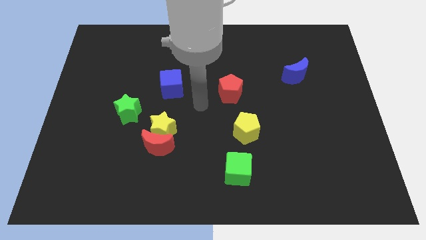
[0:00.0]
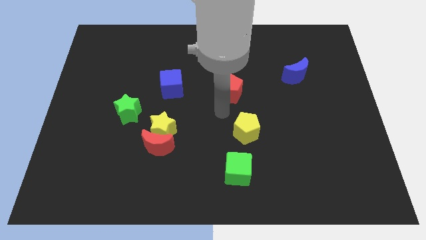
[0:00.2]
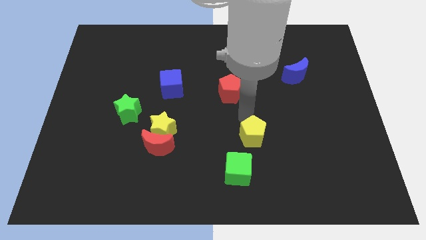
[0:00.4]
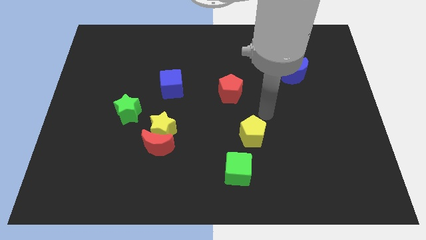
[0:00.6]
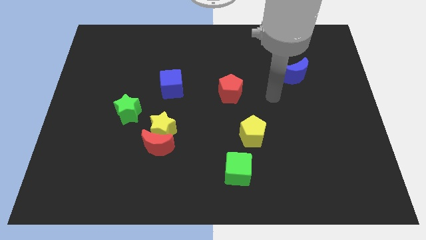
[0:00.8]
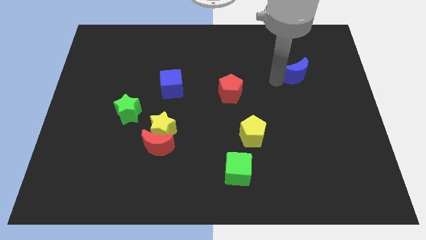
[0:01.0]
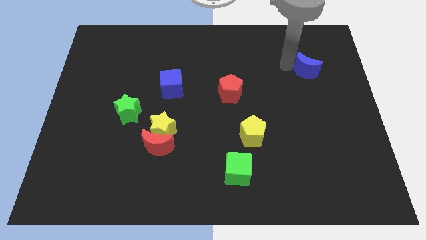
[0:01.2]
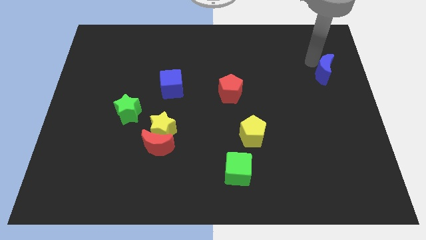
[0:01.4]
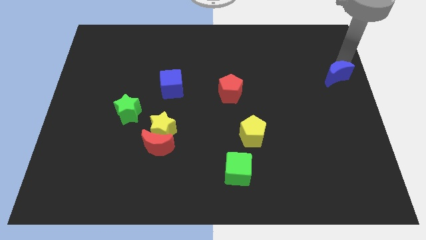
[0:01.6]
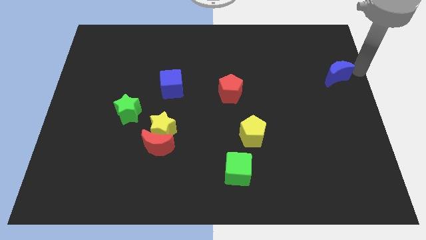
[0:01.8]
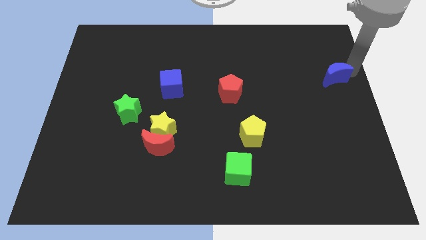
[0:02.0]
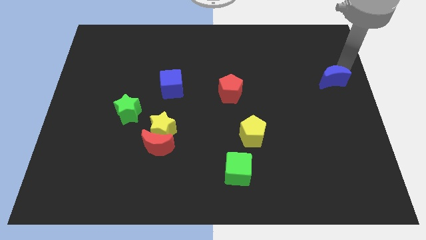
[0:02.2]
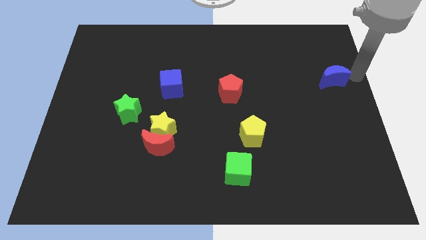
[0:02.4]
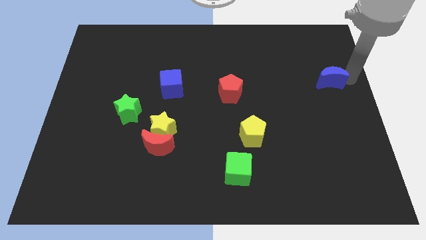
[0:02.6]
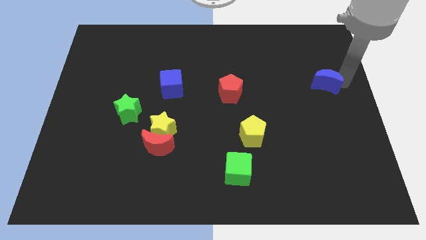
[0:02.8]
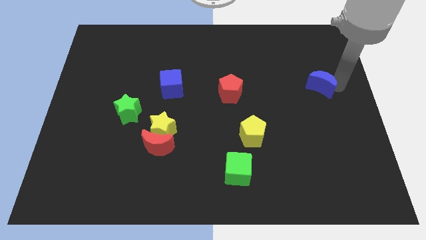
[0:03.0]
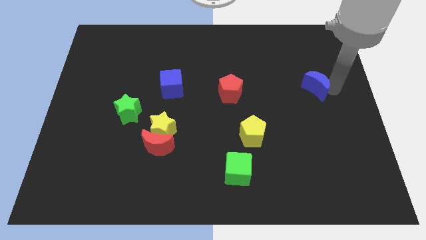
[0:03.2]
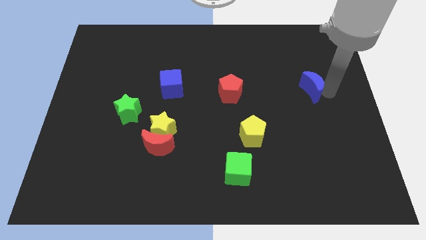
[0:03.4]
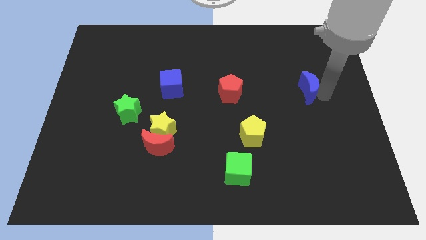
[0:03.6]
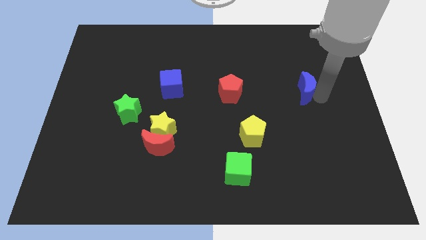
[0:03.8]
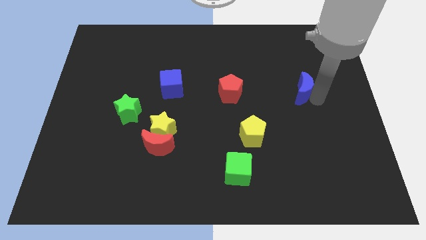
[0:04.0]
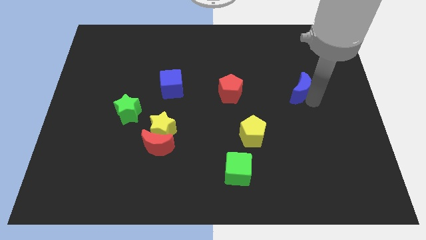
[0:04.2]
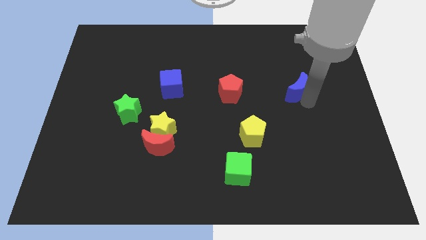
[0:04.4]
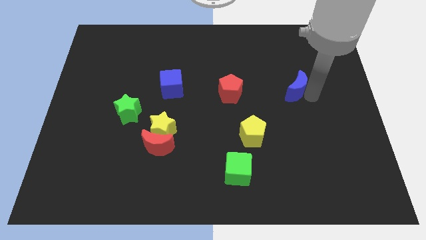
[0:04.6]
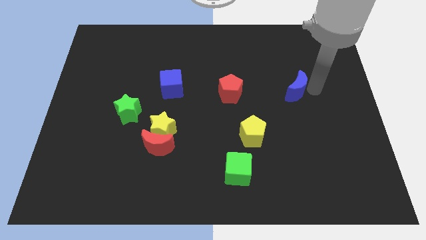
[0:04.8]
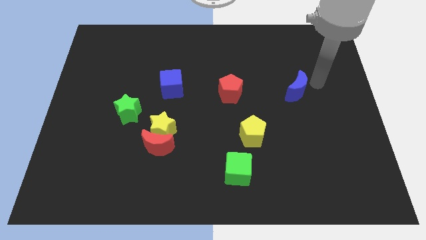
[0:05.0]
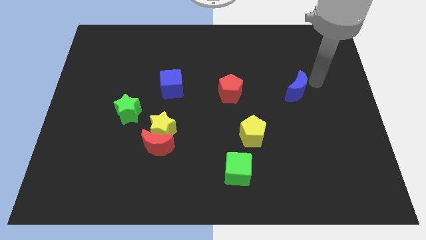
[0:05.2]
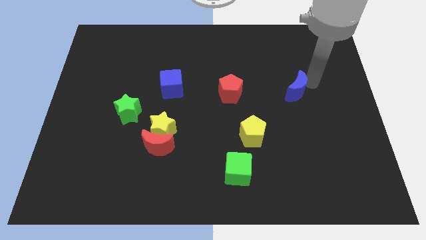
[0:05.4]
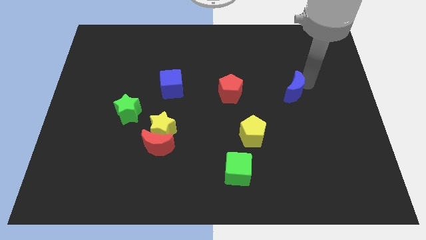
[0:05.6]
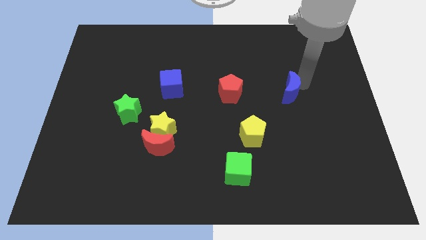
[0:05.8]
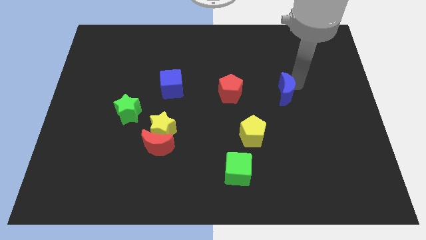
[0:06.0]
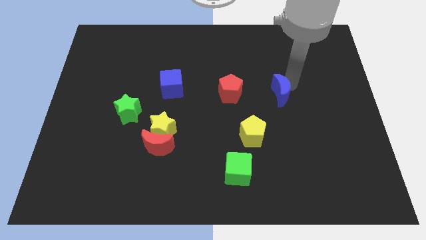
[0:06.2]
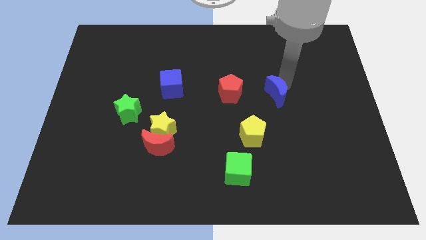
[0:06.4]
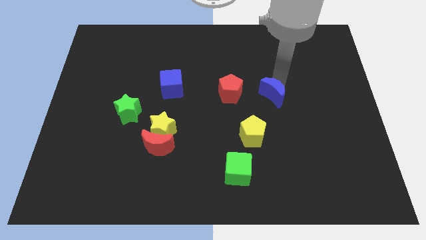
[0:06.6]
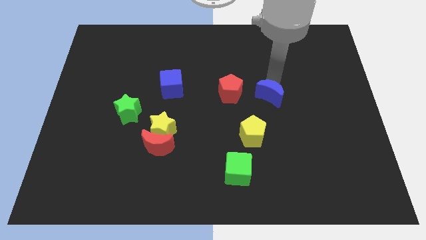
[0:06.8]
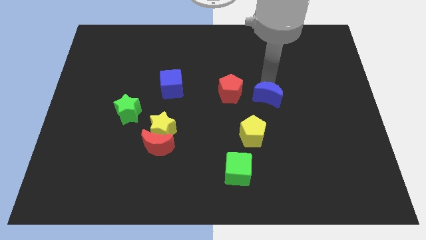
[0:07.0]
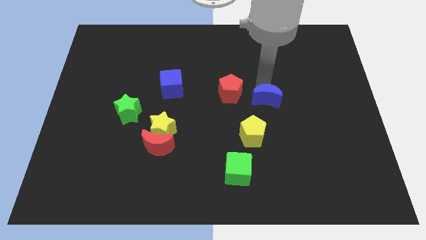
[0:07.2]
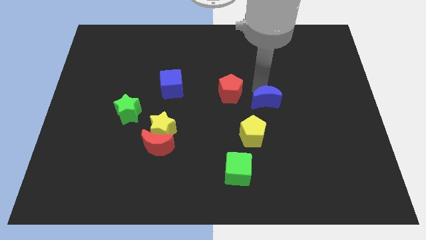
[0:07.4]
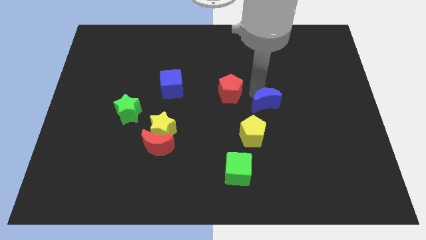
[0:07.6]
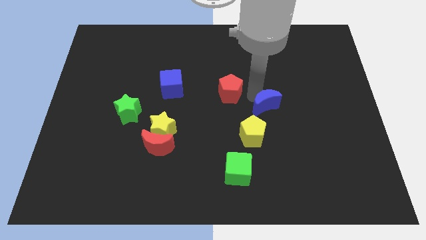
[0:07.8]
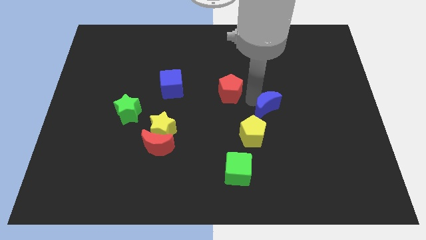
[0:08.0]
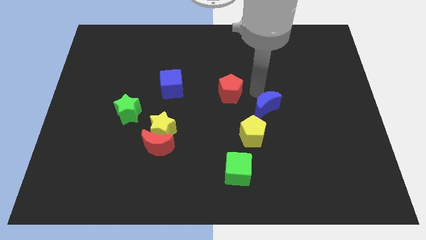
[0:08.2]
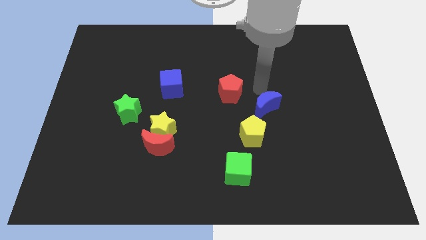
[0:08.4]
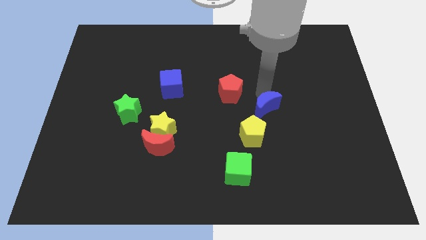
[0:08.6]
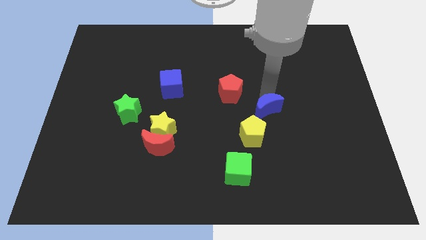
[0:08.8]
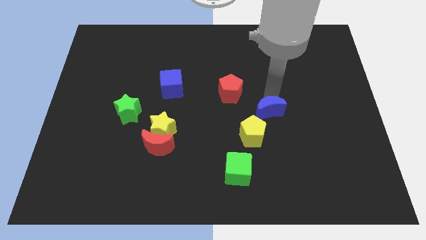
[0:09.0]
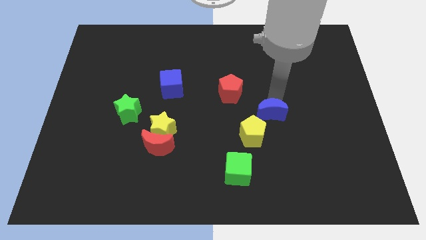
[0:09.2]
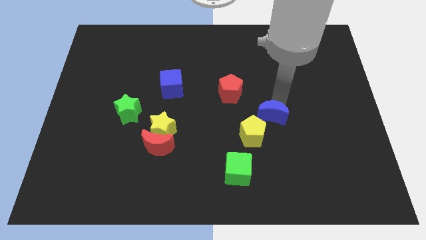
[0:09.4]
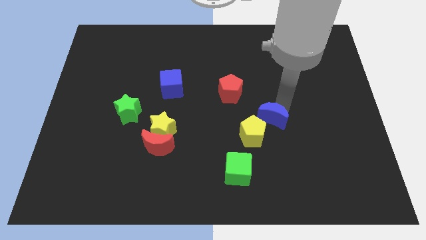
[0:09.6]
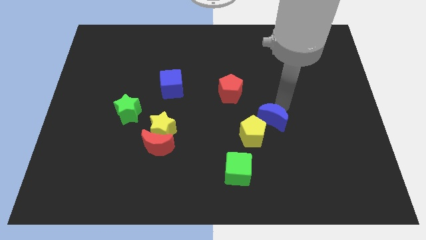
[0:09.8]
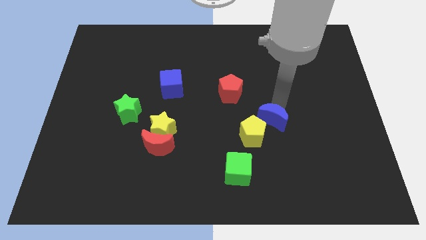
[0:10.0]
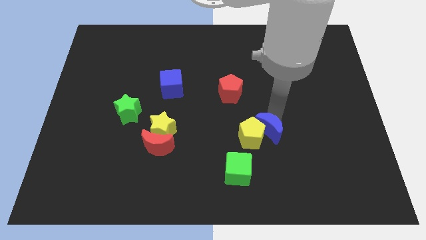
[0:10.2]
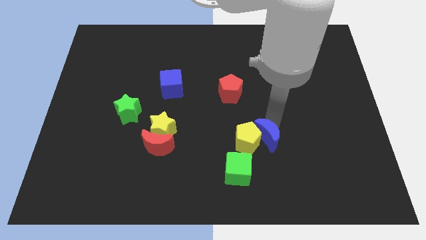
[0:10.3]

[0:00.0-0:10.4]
move the blue moon diagonally up and to the right of the green cube

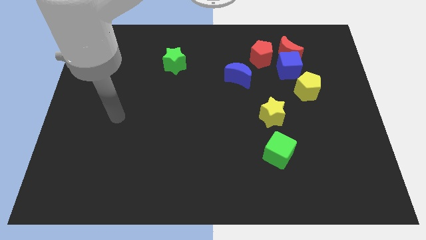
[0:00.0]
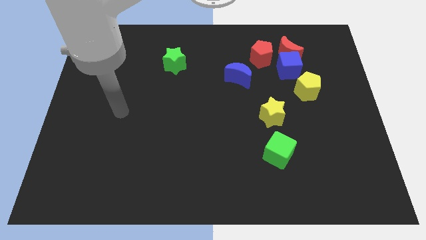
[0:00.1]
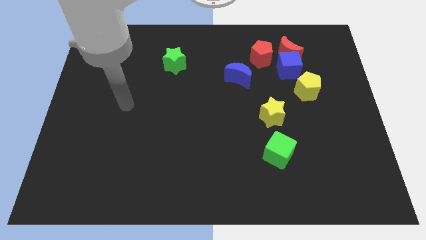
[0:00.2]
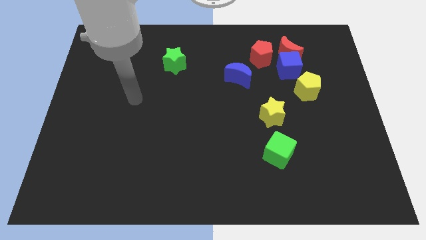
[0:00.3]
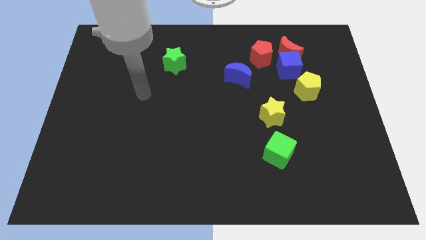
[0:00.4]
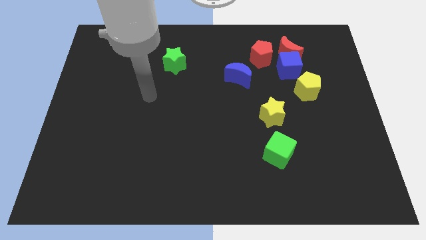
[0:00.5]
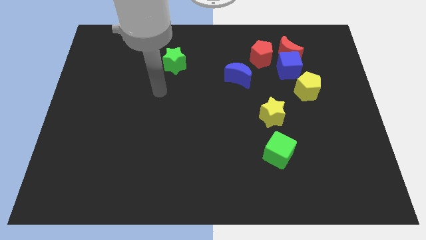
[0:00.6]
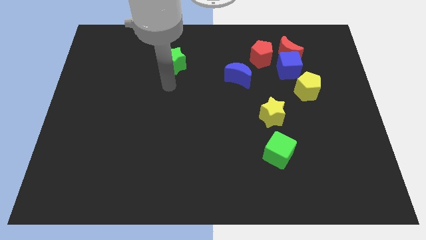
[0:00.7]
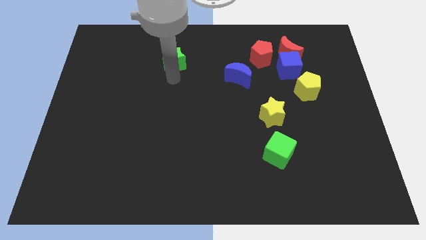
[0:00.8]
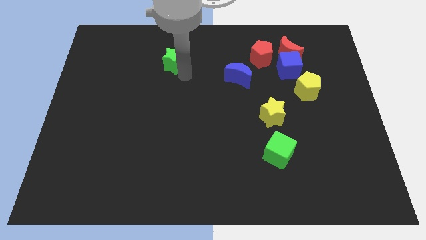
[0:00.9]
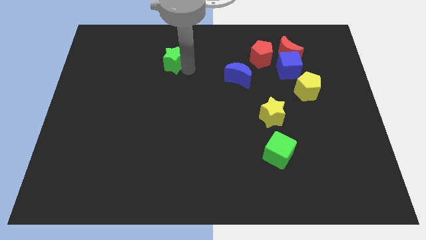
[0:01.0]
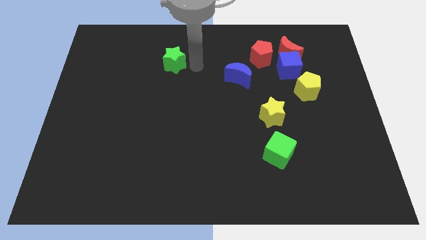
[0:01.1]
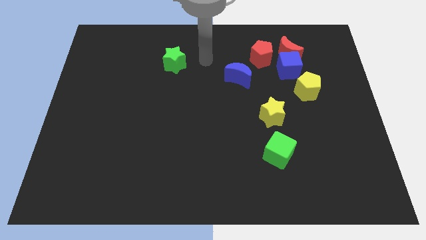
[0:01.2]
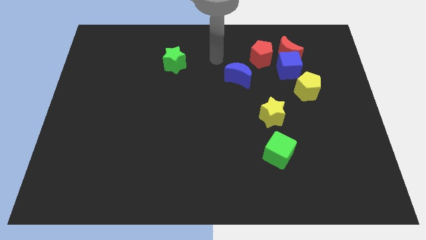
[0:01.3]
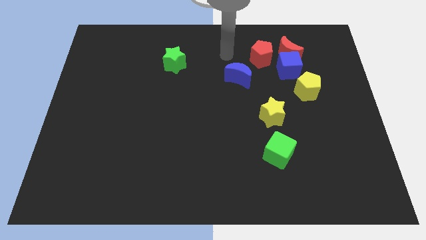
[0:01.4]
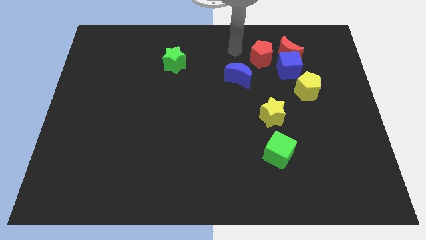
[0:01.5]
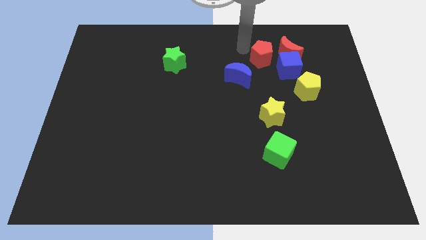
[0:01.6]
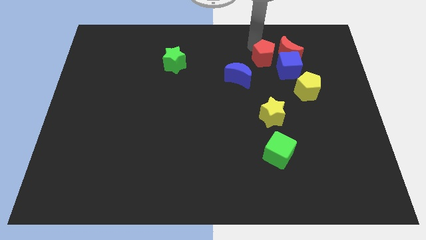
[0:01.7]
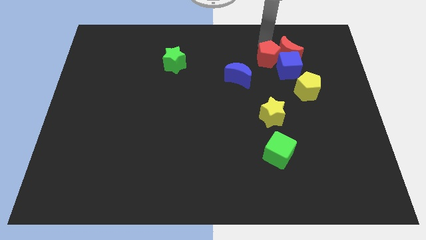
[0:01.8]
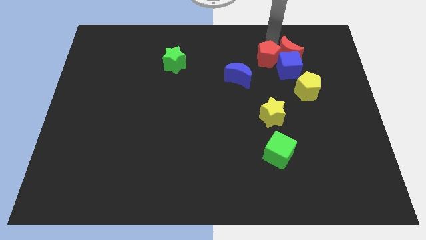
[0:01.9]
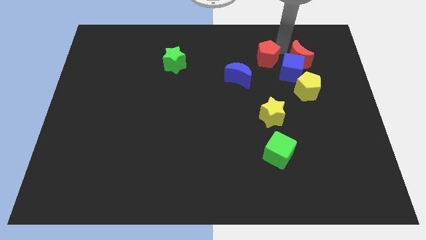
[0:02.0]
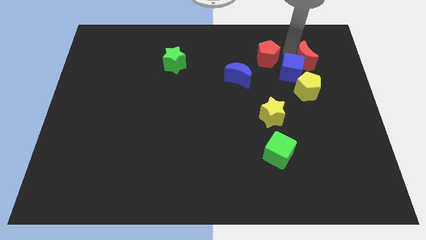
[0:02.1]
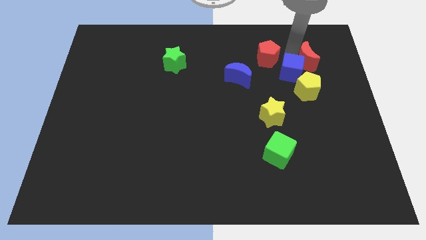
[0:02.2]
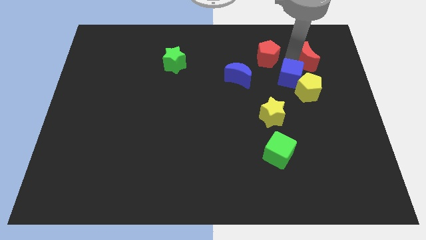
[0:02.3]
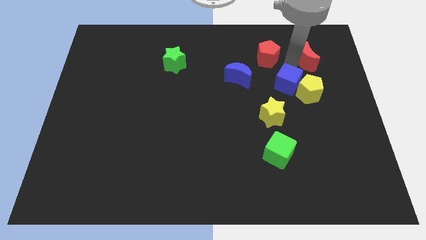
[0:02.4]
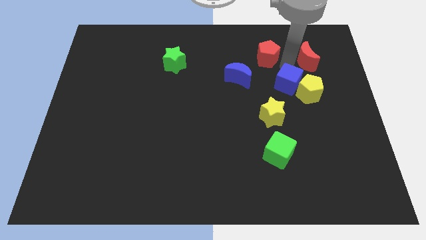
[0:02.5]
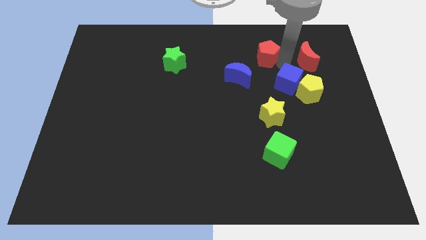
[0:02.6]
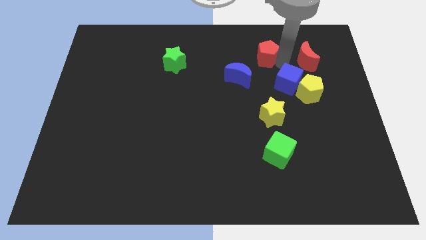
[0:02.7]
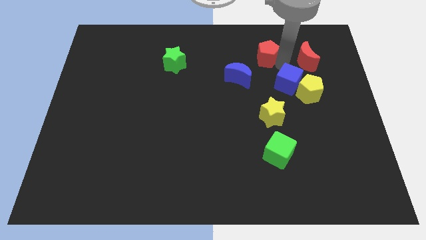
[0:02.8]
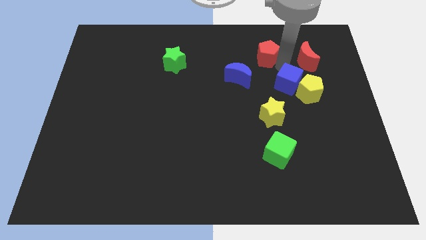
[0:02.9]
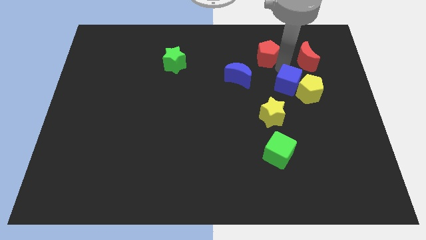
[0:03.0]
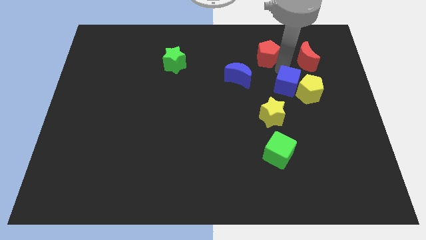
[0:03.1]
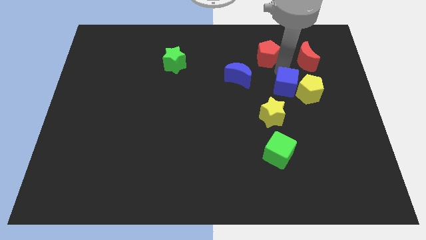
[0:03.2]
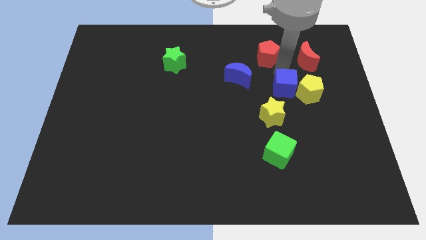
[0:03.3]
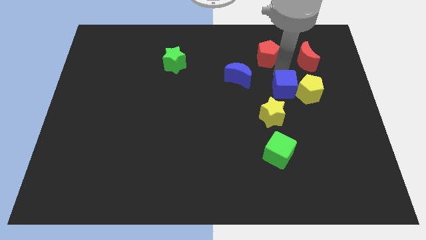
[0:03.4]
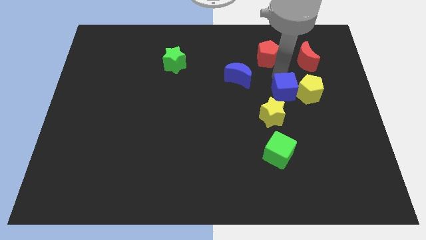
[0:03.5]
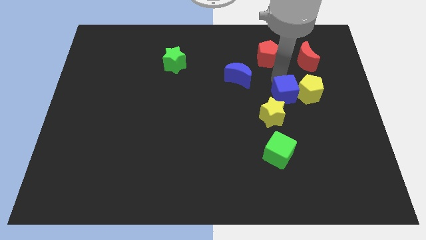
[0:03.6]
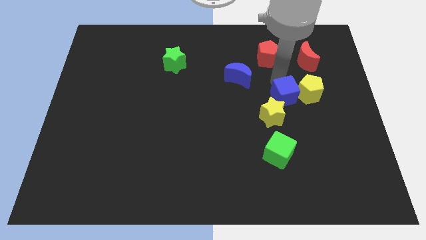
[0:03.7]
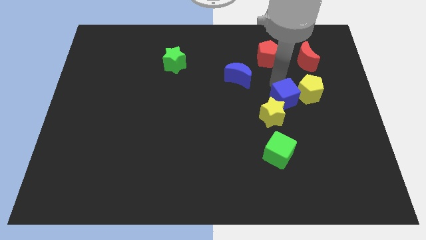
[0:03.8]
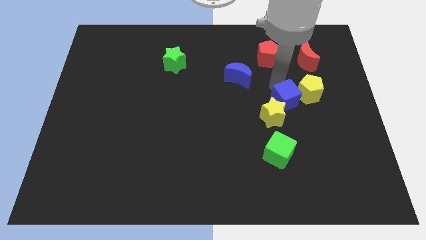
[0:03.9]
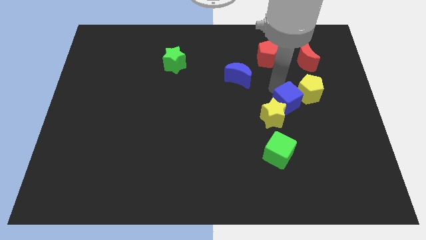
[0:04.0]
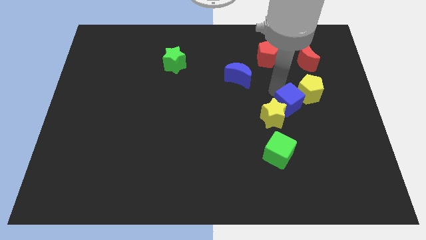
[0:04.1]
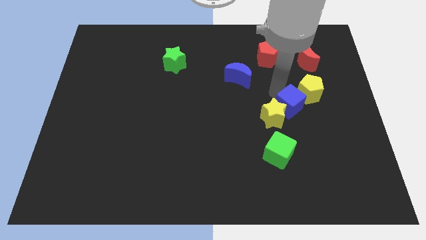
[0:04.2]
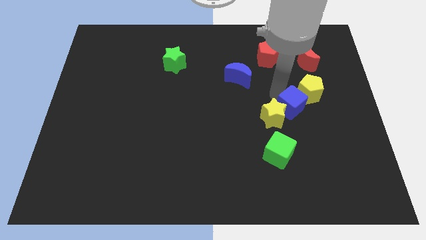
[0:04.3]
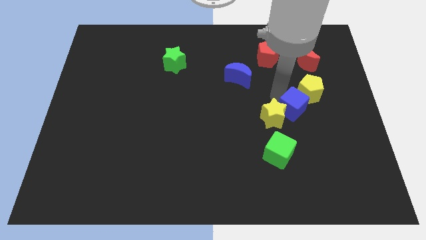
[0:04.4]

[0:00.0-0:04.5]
slide the blue cube below the yellow pentagon
